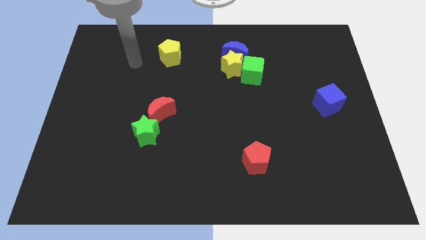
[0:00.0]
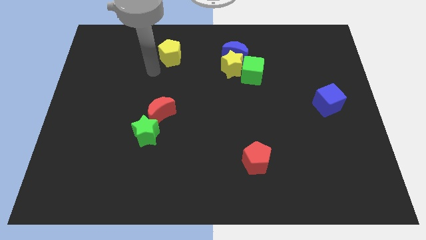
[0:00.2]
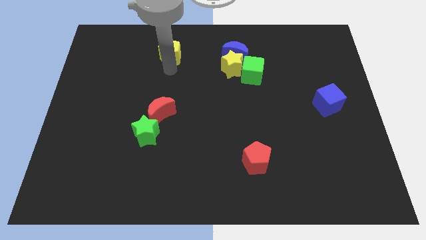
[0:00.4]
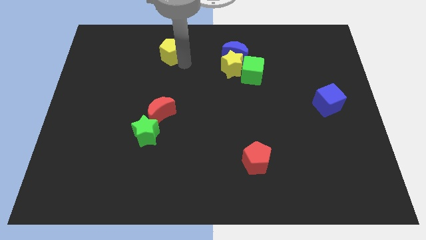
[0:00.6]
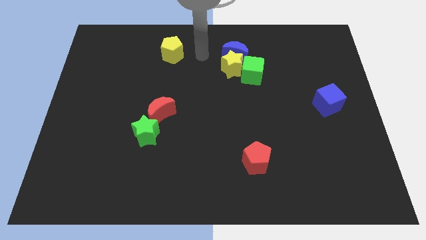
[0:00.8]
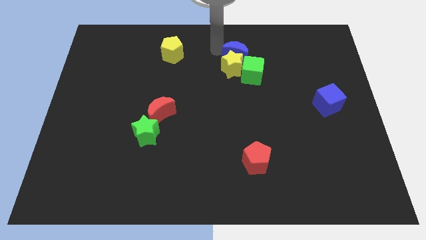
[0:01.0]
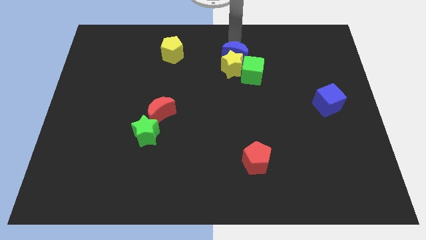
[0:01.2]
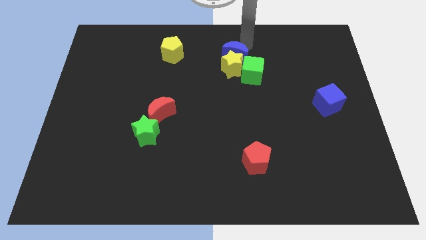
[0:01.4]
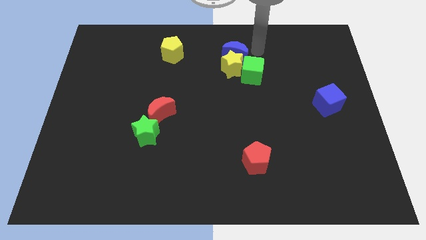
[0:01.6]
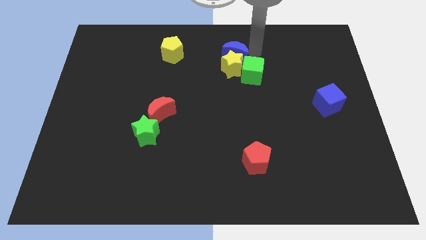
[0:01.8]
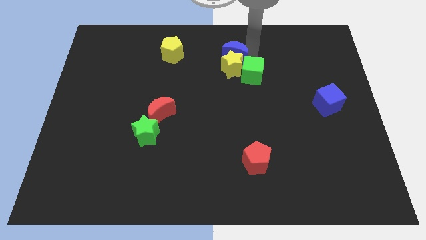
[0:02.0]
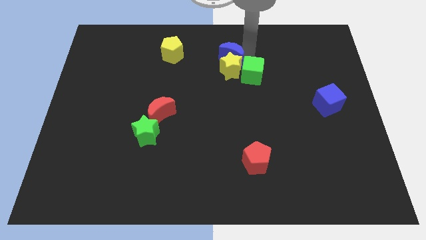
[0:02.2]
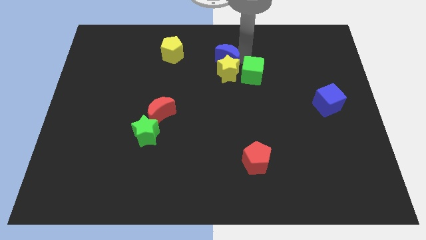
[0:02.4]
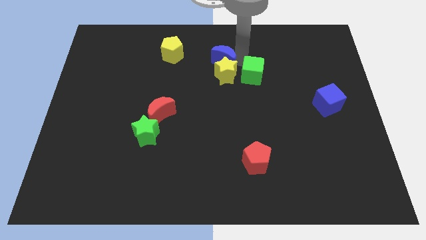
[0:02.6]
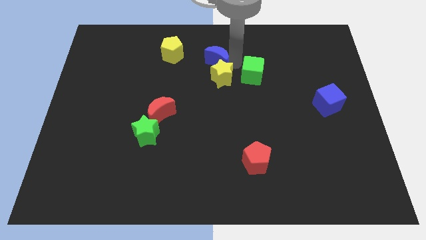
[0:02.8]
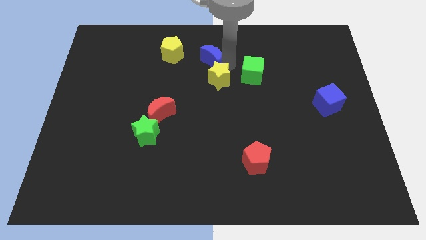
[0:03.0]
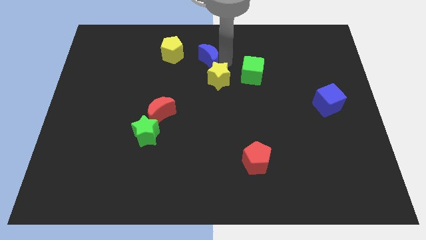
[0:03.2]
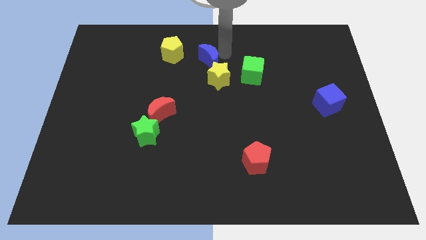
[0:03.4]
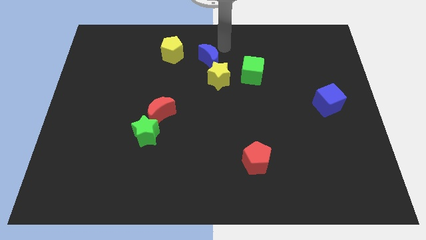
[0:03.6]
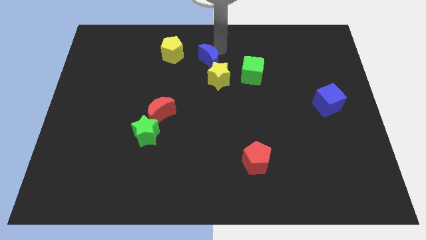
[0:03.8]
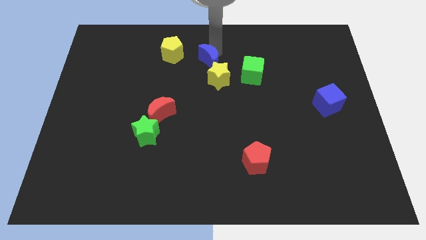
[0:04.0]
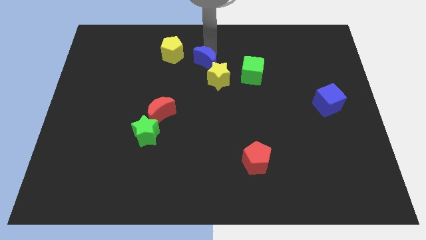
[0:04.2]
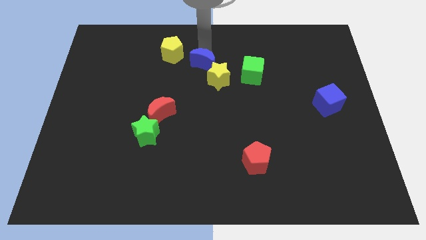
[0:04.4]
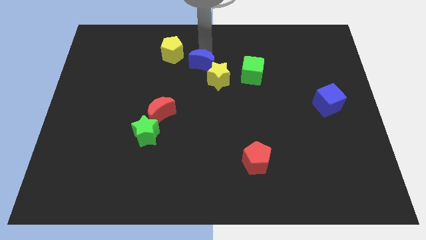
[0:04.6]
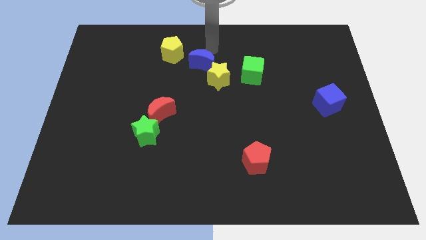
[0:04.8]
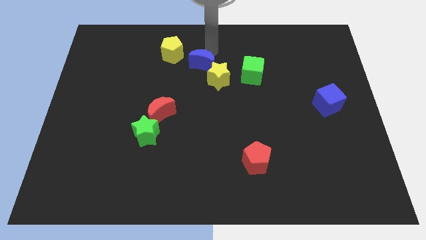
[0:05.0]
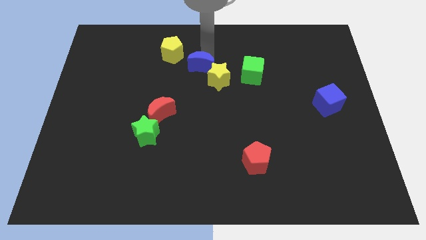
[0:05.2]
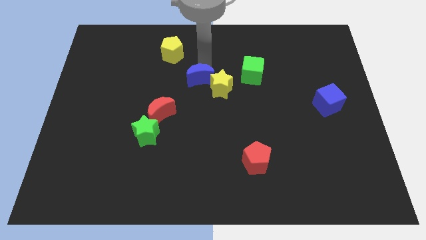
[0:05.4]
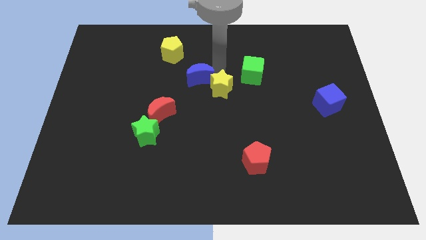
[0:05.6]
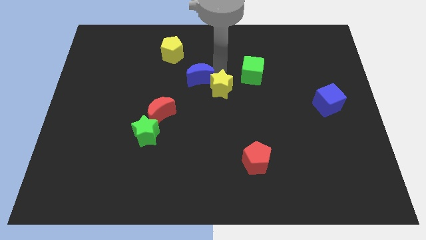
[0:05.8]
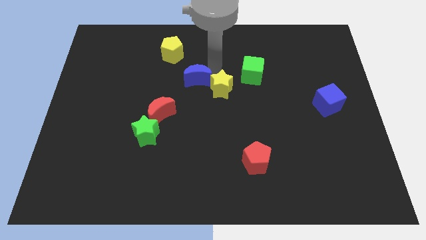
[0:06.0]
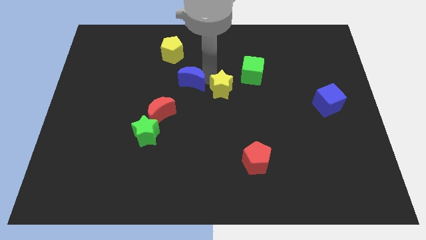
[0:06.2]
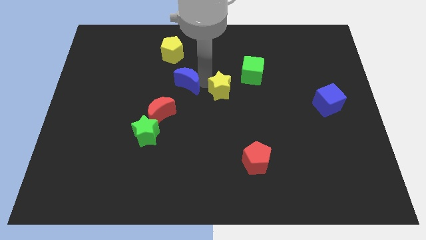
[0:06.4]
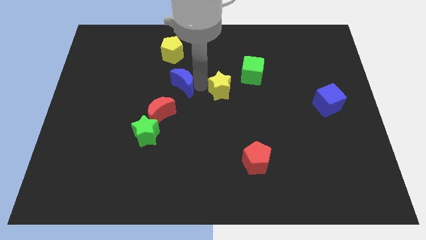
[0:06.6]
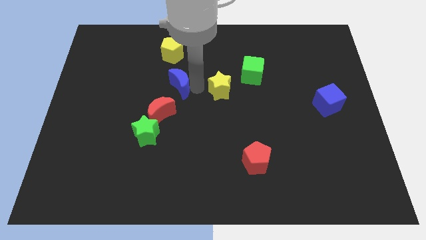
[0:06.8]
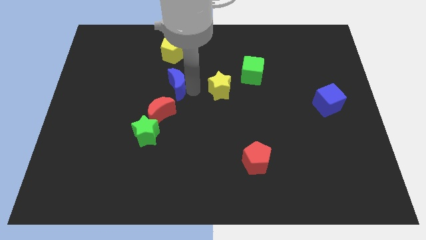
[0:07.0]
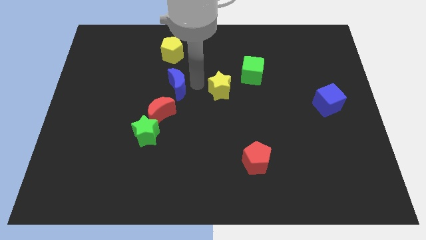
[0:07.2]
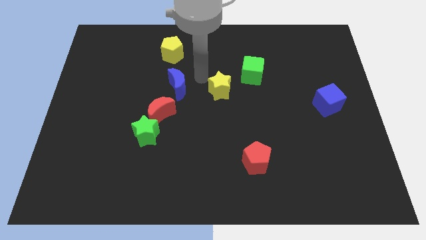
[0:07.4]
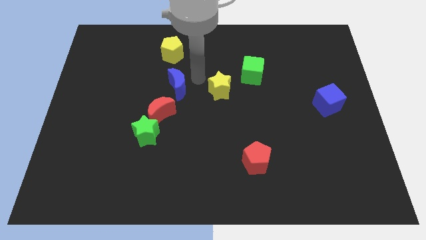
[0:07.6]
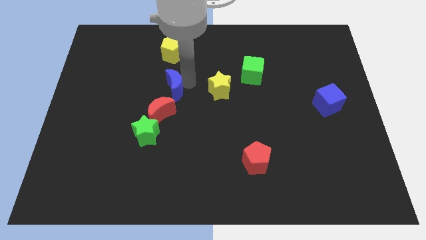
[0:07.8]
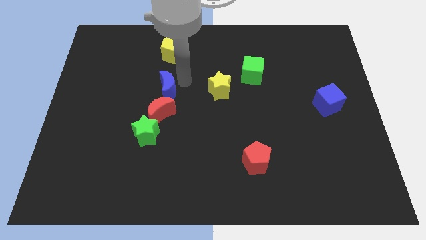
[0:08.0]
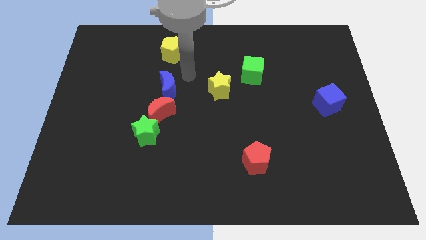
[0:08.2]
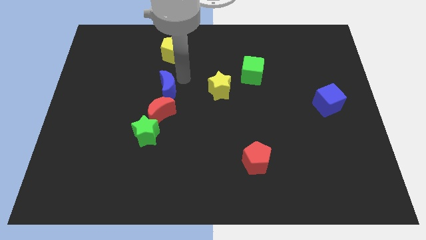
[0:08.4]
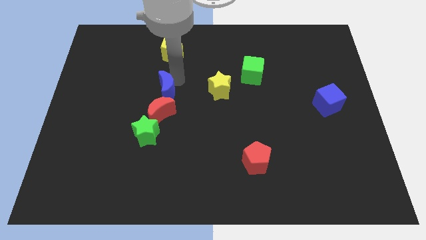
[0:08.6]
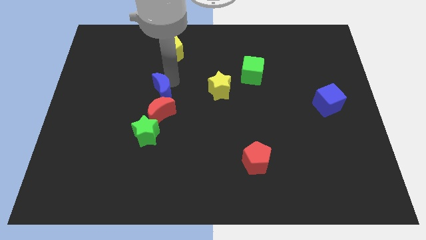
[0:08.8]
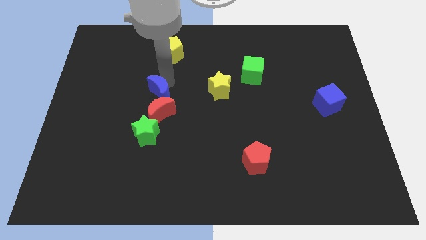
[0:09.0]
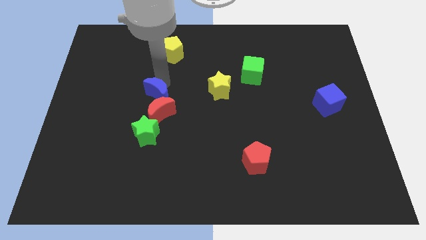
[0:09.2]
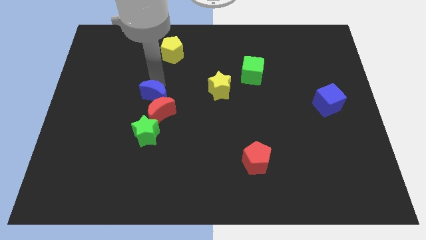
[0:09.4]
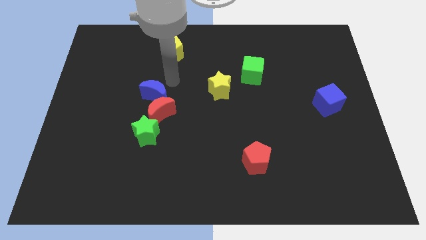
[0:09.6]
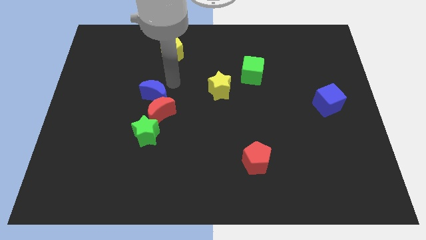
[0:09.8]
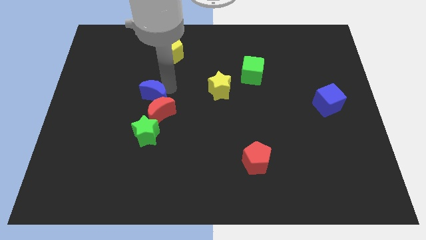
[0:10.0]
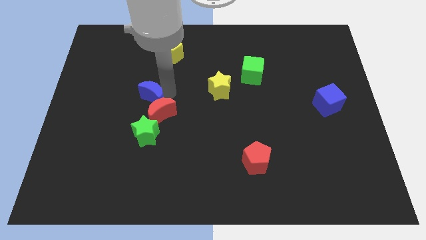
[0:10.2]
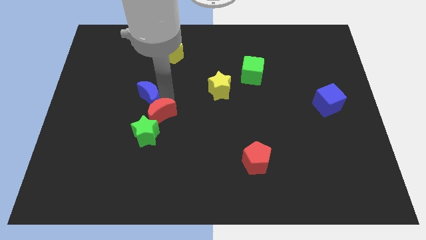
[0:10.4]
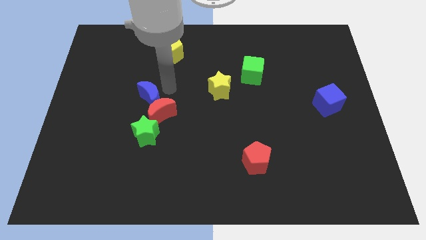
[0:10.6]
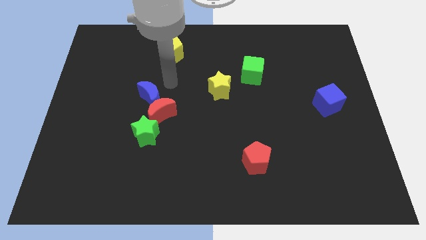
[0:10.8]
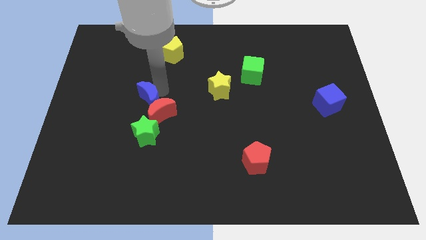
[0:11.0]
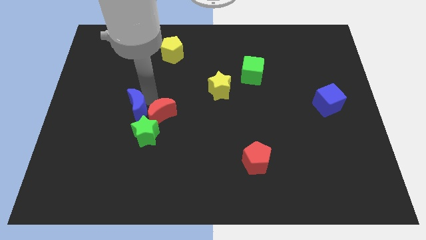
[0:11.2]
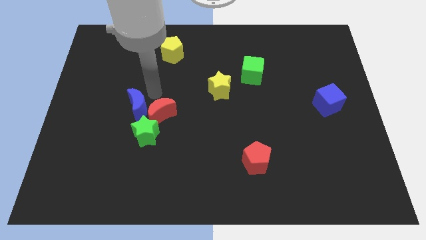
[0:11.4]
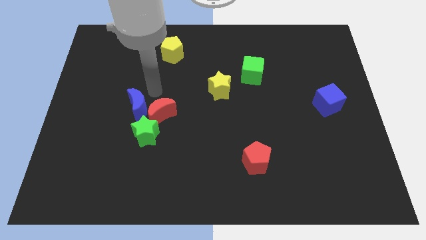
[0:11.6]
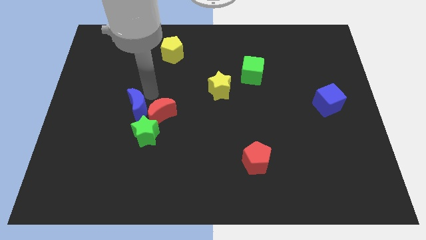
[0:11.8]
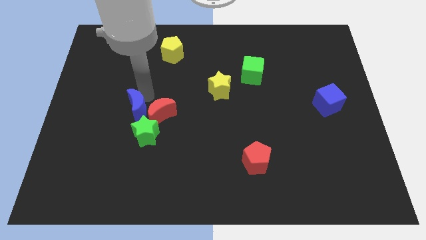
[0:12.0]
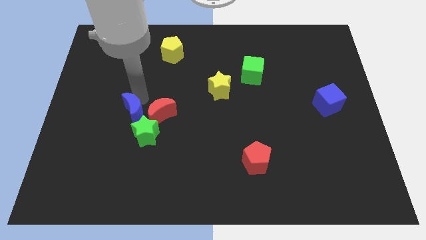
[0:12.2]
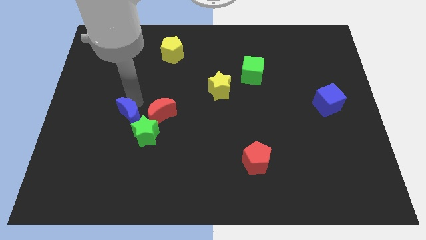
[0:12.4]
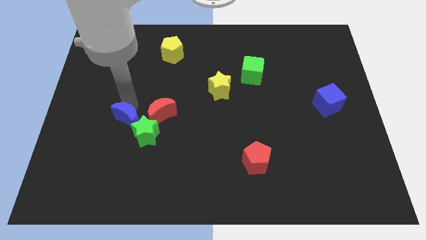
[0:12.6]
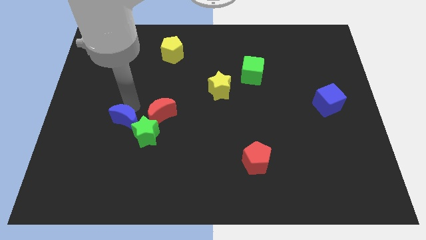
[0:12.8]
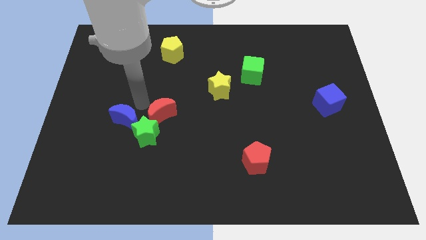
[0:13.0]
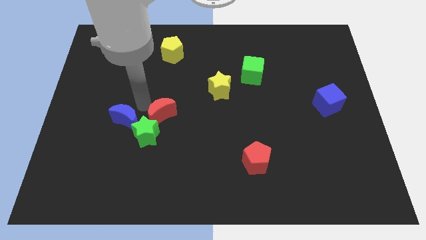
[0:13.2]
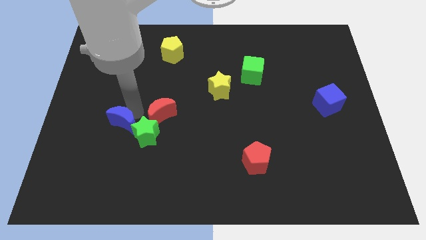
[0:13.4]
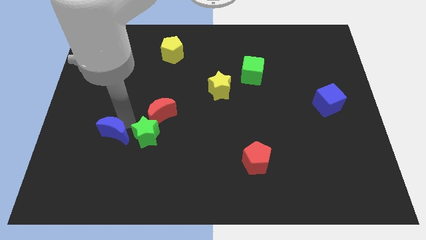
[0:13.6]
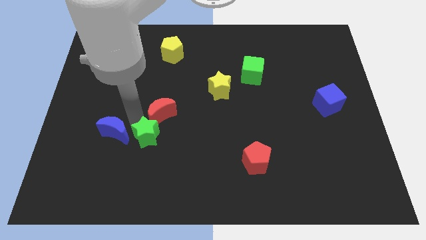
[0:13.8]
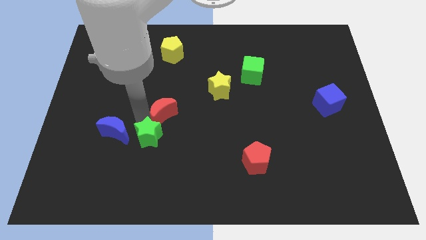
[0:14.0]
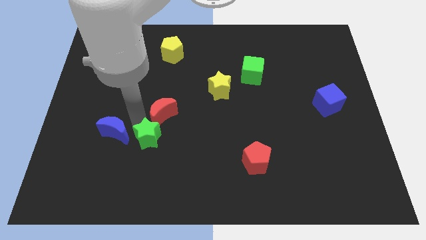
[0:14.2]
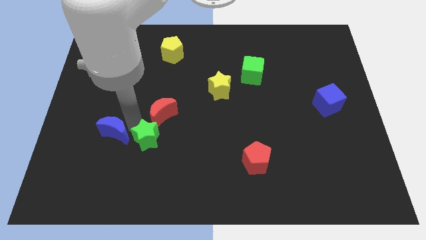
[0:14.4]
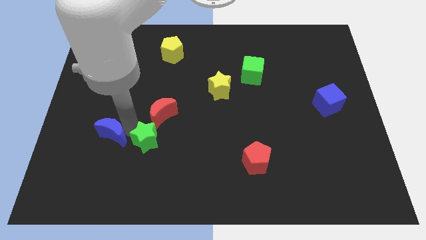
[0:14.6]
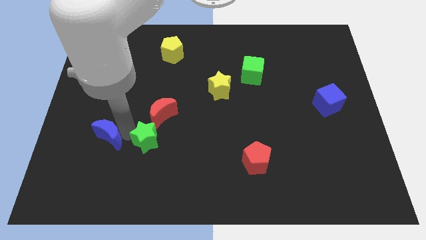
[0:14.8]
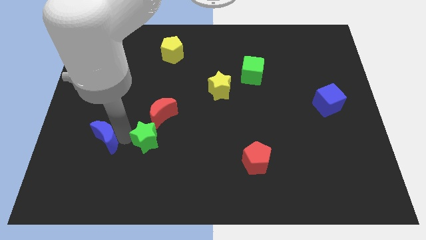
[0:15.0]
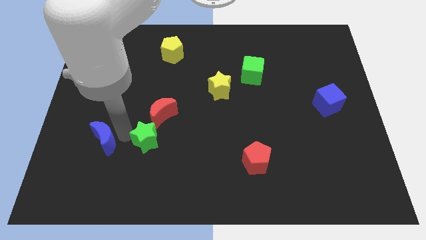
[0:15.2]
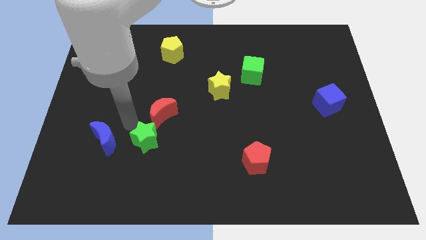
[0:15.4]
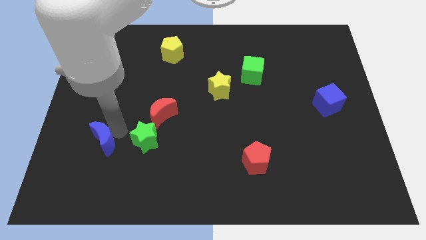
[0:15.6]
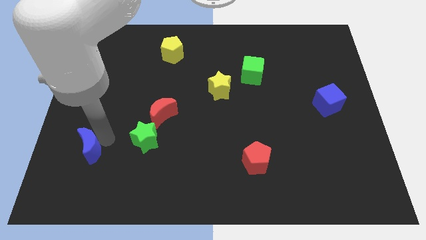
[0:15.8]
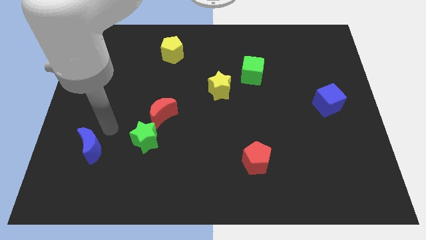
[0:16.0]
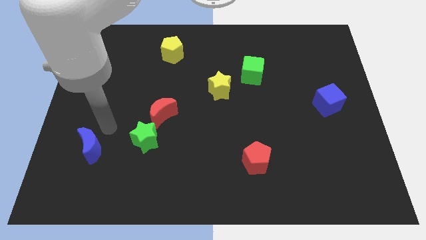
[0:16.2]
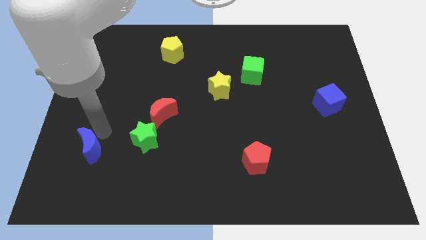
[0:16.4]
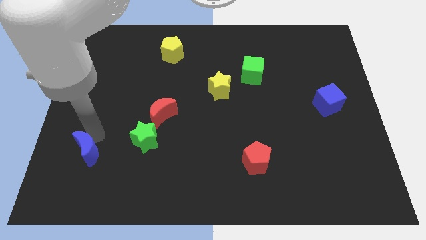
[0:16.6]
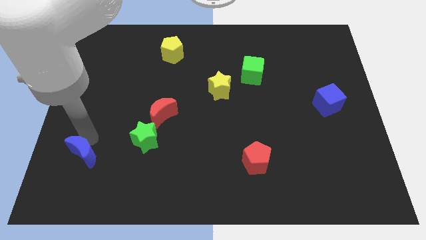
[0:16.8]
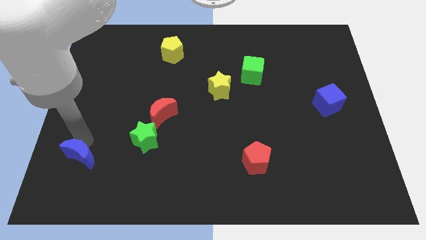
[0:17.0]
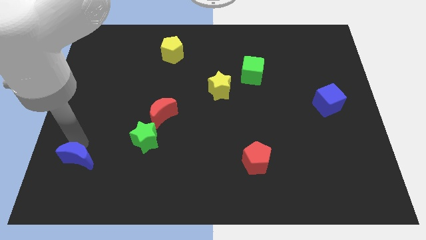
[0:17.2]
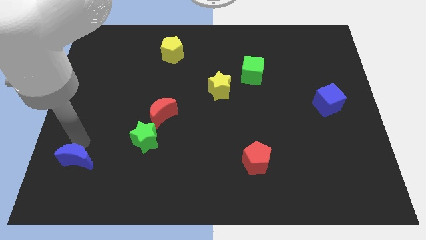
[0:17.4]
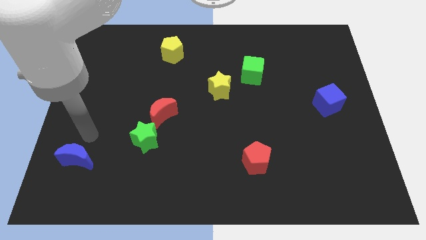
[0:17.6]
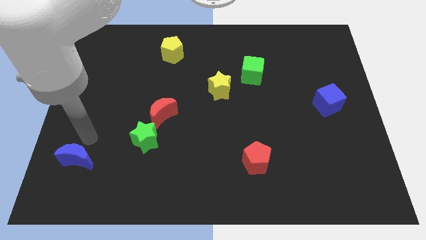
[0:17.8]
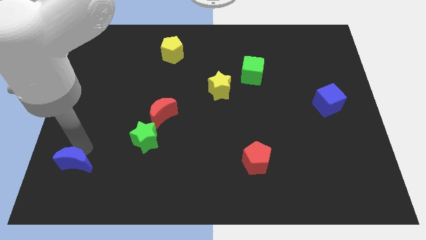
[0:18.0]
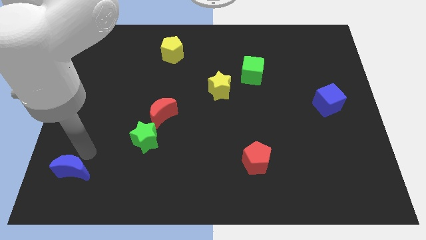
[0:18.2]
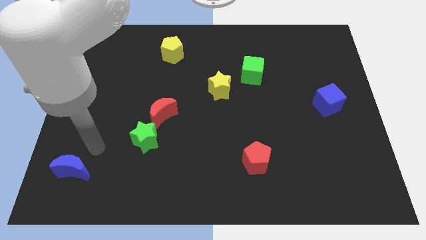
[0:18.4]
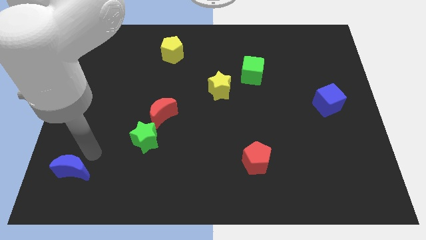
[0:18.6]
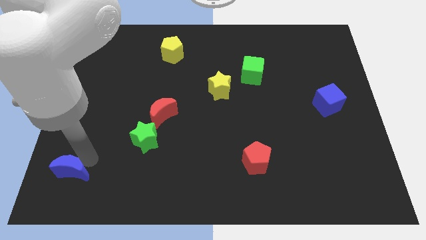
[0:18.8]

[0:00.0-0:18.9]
push the blue moon to the bottom left of the board
